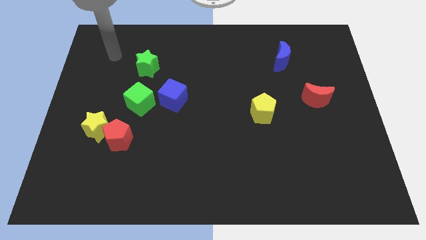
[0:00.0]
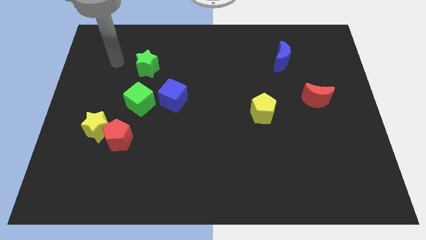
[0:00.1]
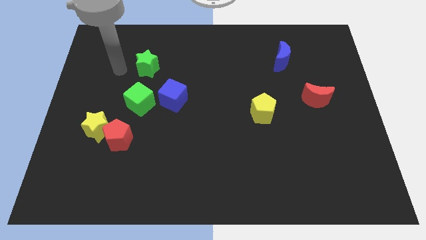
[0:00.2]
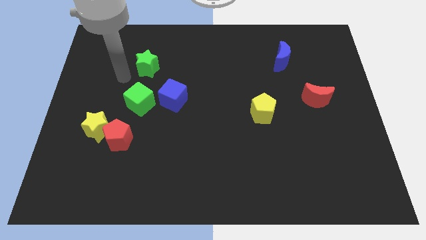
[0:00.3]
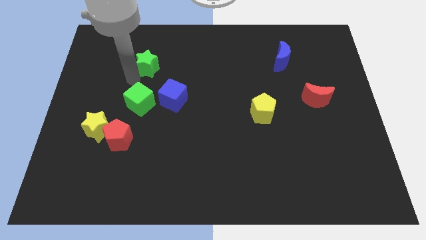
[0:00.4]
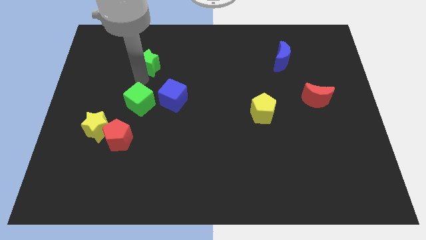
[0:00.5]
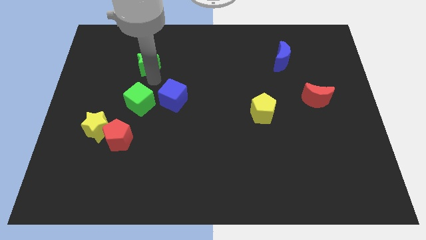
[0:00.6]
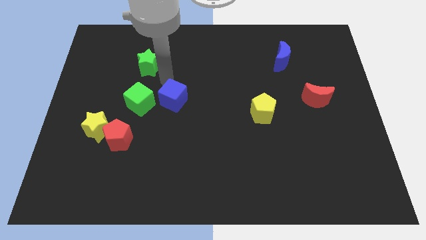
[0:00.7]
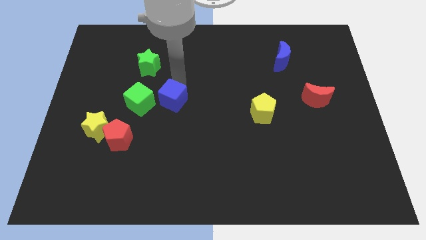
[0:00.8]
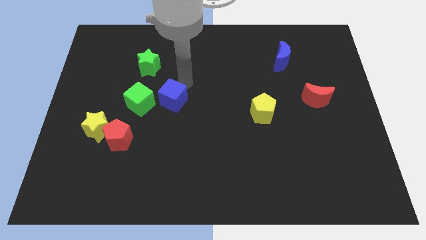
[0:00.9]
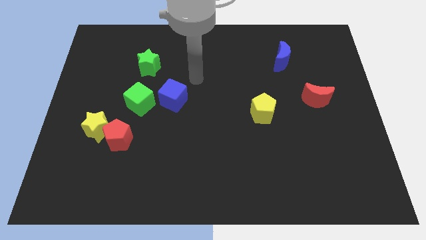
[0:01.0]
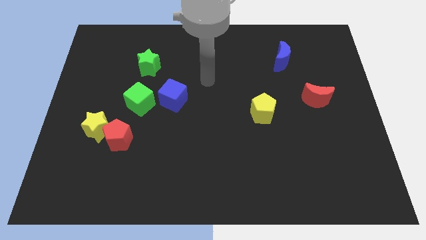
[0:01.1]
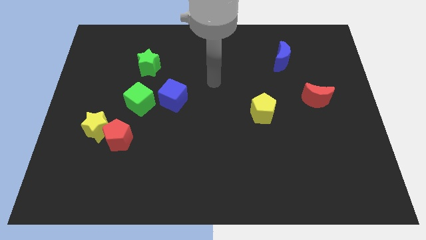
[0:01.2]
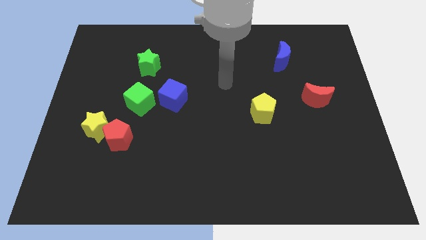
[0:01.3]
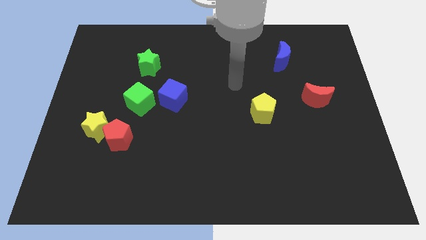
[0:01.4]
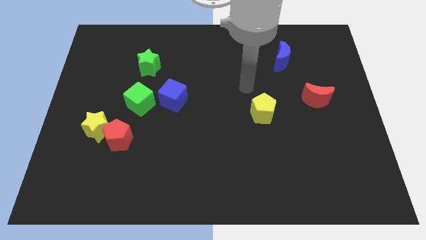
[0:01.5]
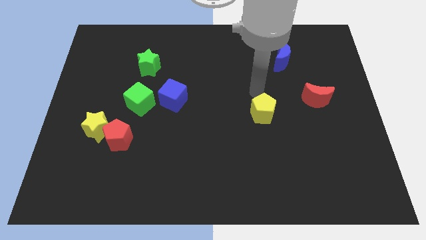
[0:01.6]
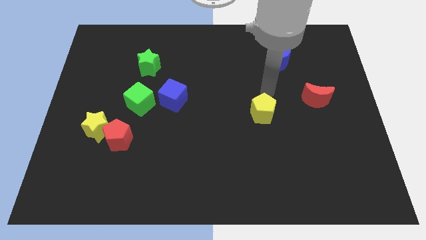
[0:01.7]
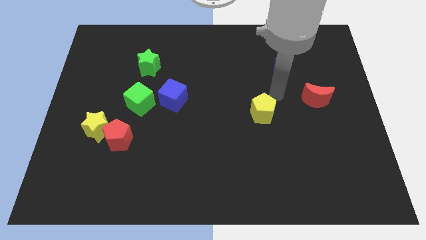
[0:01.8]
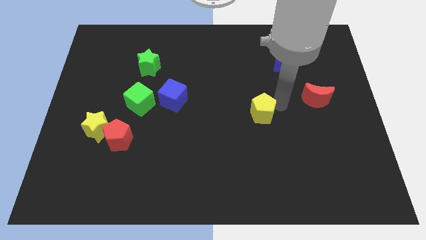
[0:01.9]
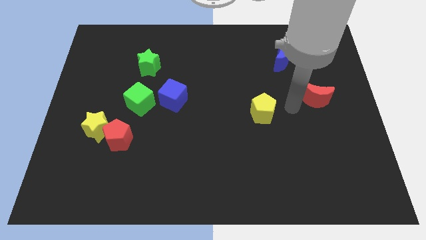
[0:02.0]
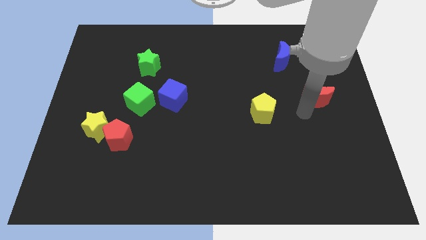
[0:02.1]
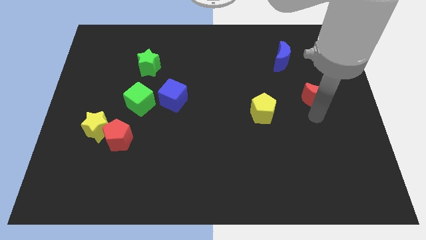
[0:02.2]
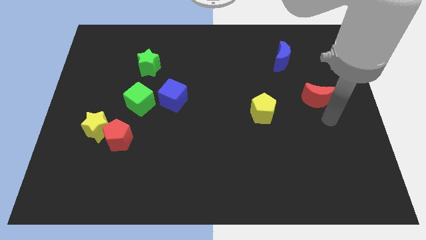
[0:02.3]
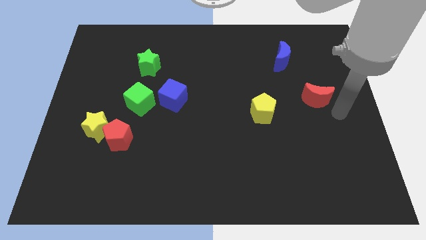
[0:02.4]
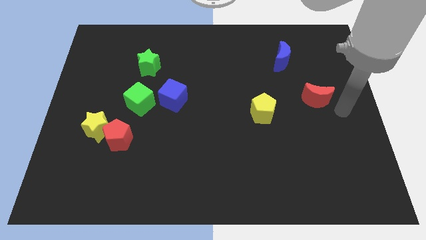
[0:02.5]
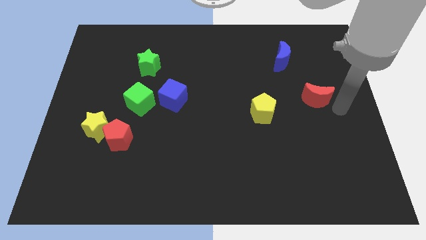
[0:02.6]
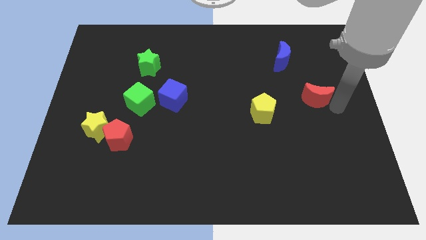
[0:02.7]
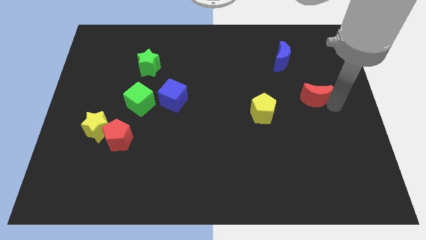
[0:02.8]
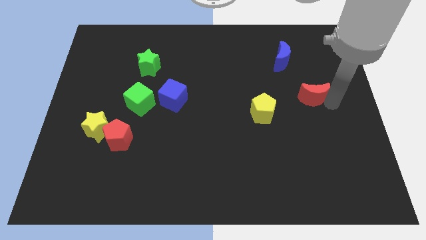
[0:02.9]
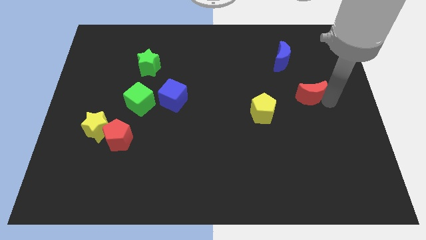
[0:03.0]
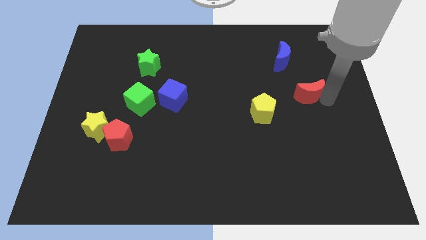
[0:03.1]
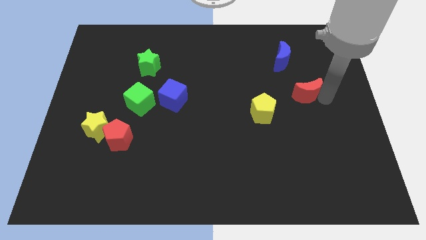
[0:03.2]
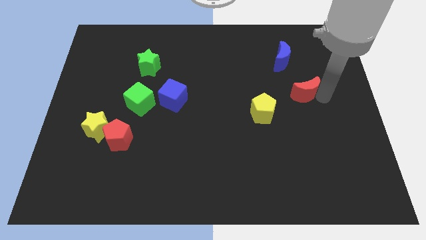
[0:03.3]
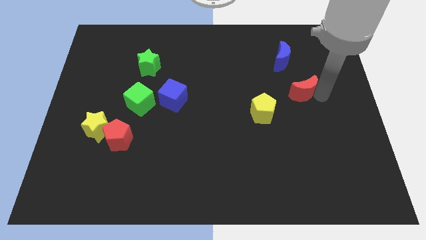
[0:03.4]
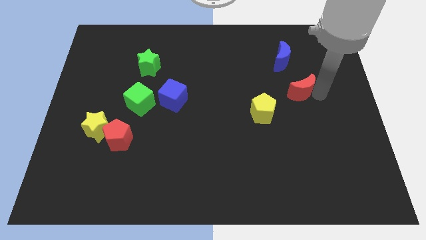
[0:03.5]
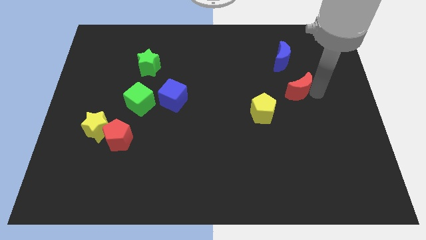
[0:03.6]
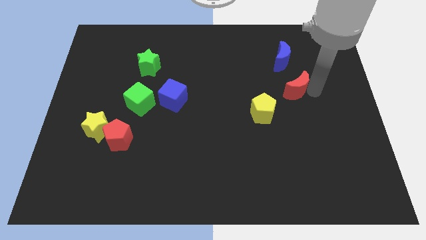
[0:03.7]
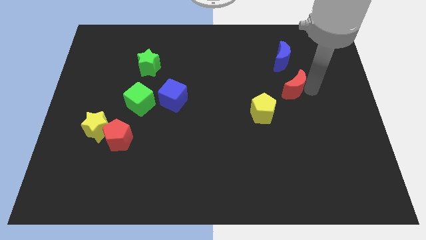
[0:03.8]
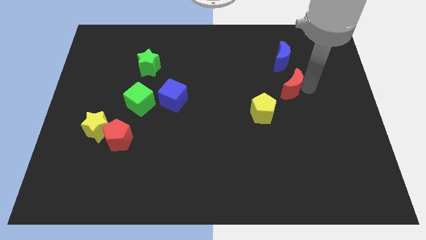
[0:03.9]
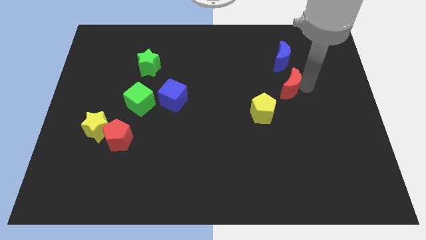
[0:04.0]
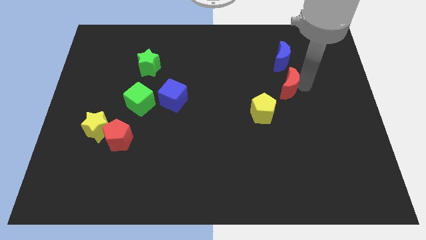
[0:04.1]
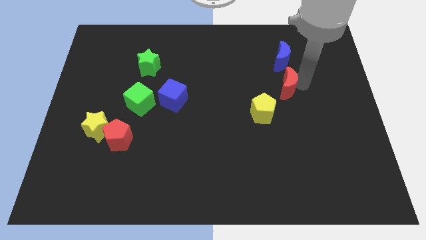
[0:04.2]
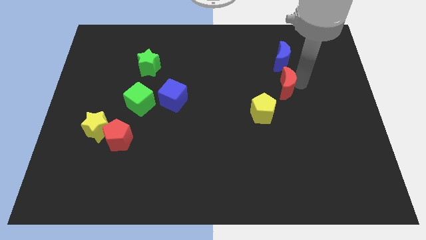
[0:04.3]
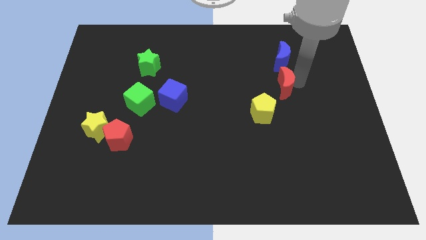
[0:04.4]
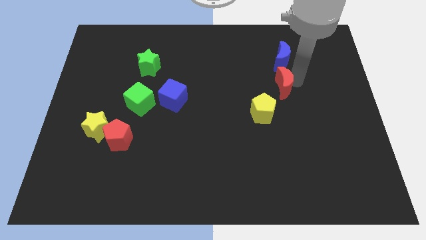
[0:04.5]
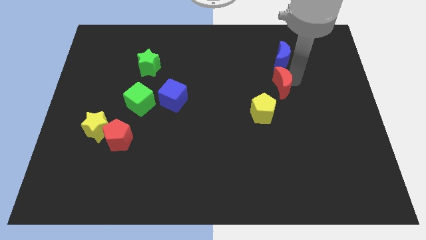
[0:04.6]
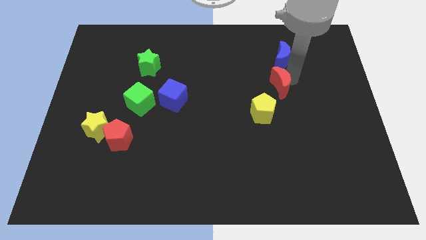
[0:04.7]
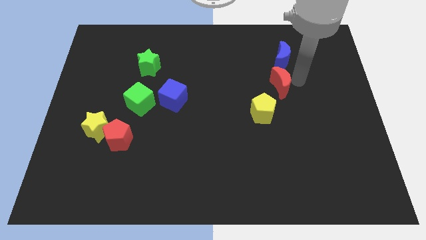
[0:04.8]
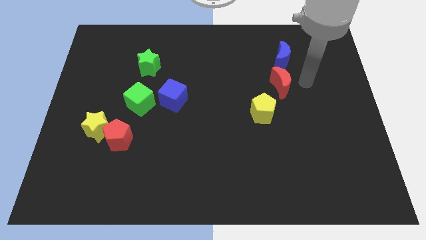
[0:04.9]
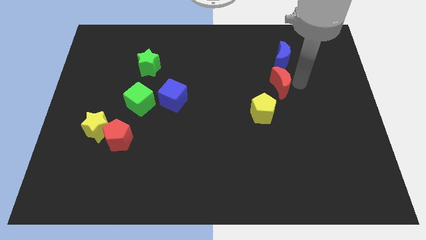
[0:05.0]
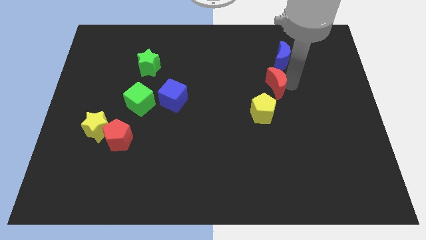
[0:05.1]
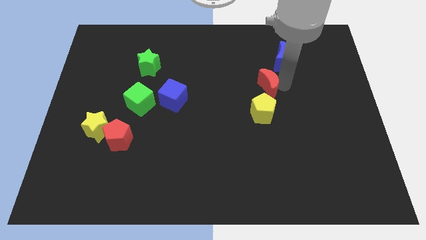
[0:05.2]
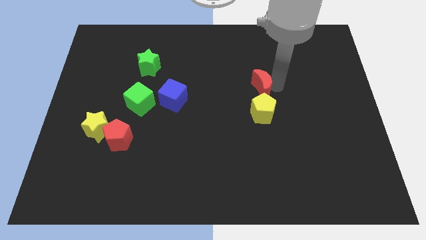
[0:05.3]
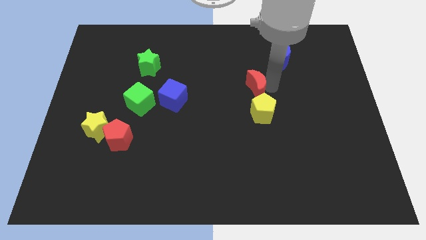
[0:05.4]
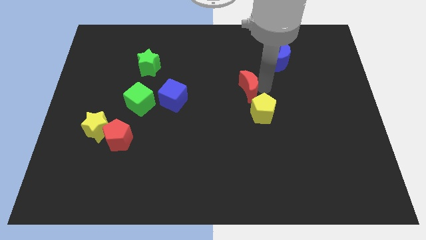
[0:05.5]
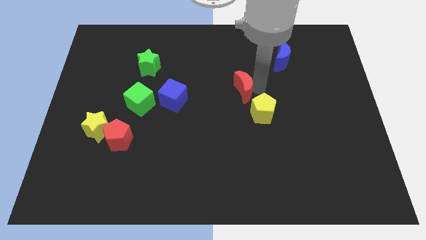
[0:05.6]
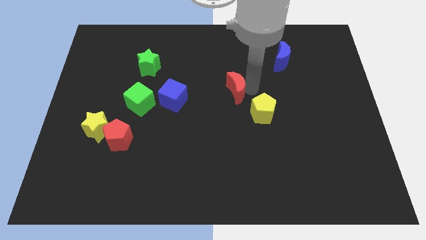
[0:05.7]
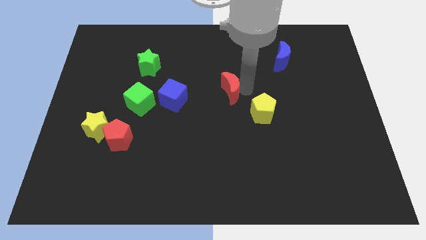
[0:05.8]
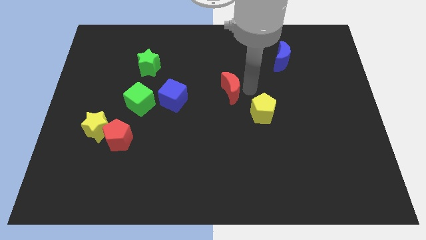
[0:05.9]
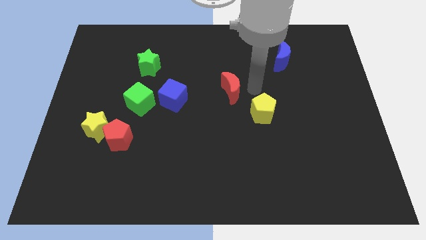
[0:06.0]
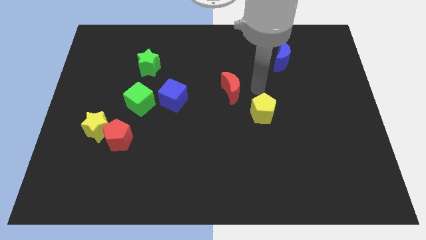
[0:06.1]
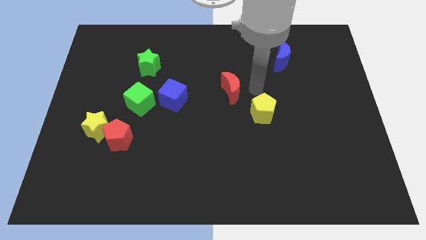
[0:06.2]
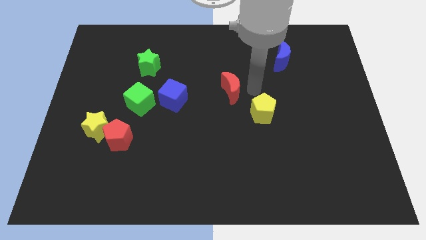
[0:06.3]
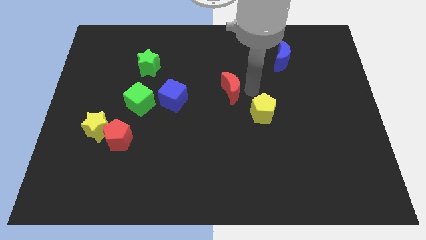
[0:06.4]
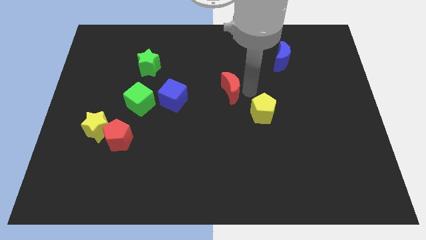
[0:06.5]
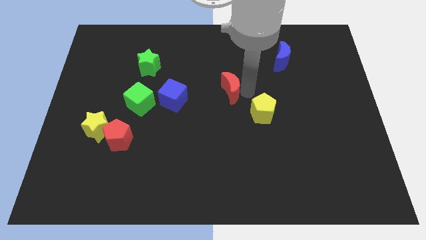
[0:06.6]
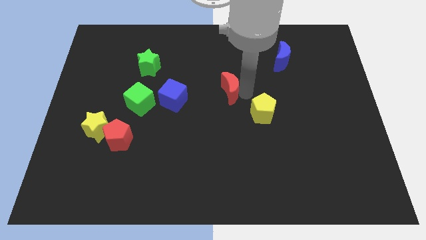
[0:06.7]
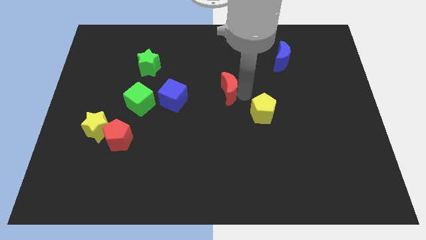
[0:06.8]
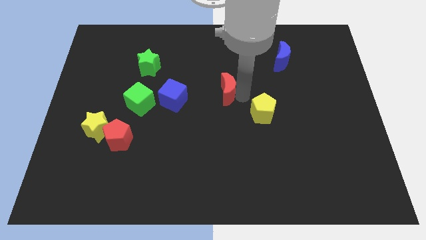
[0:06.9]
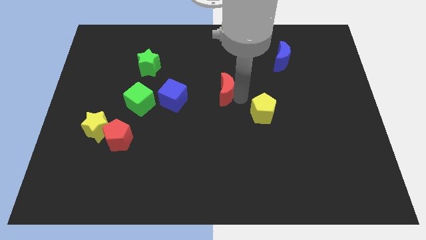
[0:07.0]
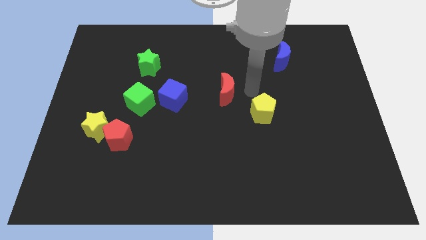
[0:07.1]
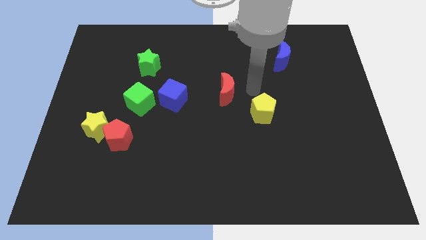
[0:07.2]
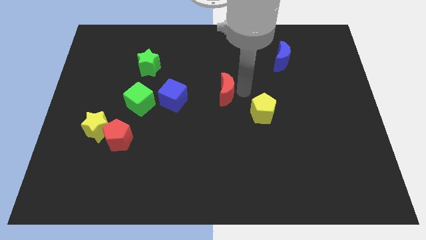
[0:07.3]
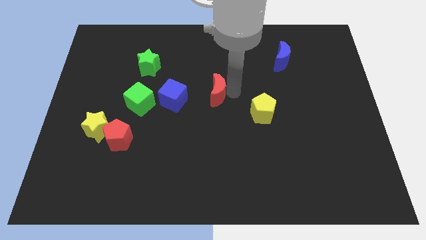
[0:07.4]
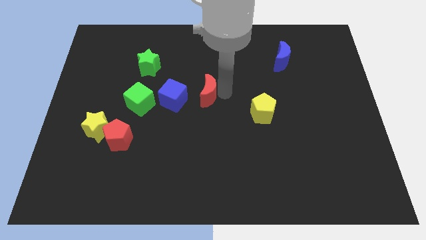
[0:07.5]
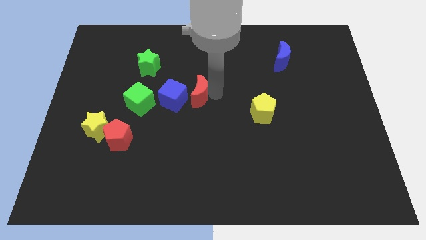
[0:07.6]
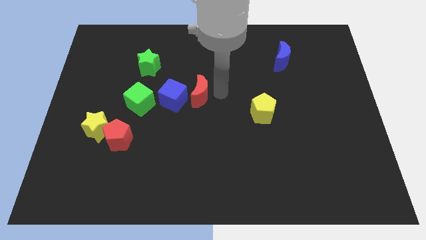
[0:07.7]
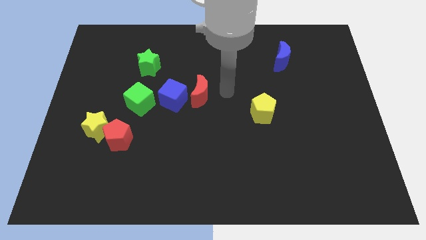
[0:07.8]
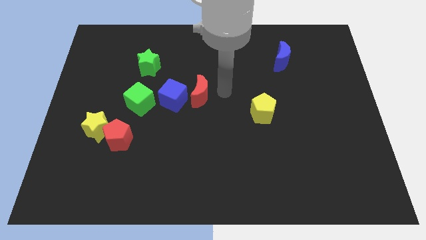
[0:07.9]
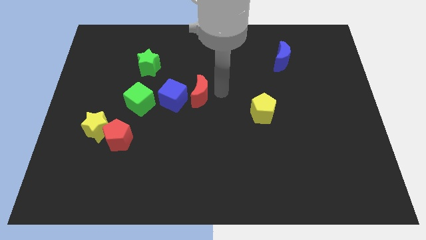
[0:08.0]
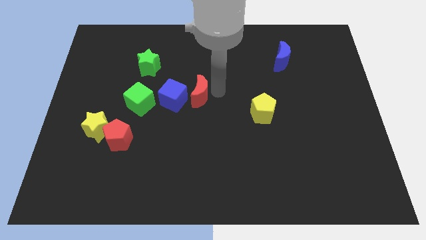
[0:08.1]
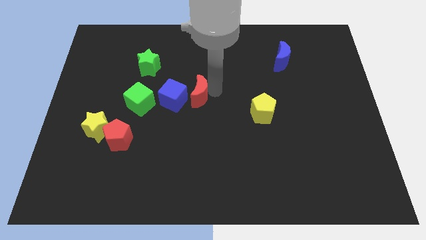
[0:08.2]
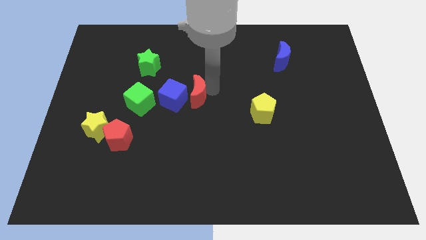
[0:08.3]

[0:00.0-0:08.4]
move the red moon close to the blue cube
